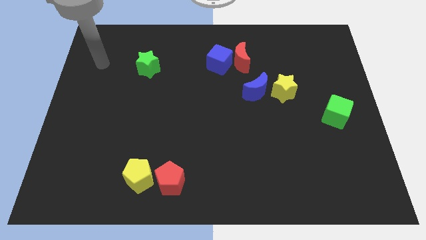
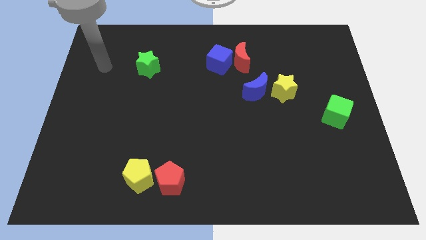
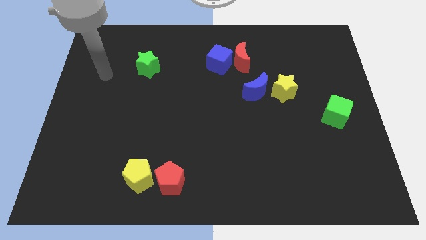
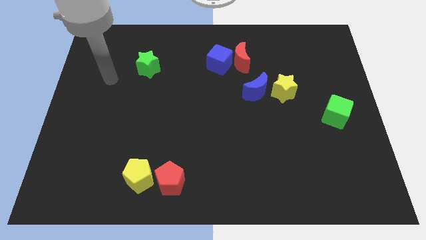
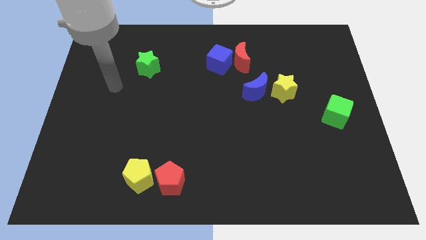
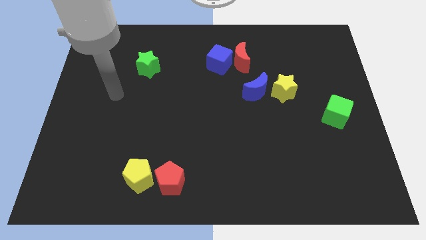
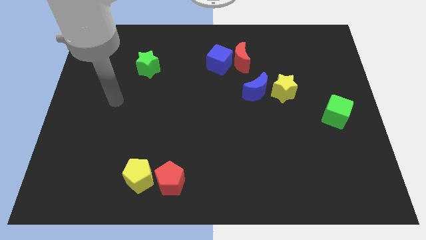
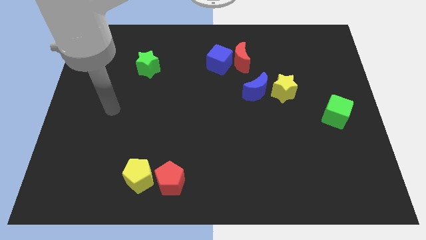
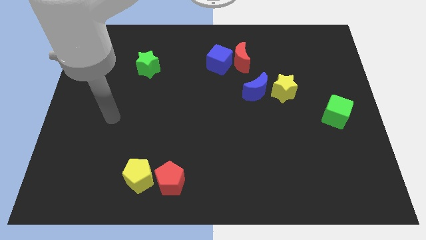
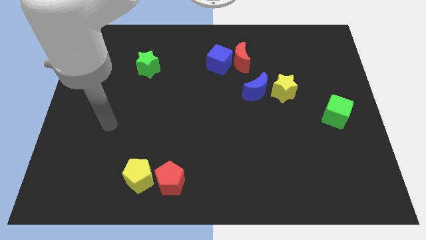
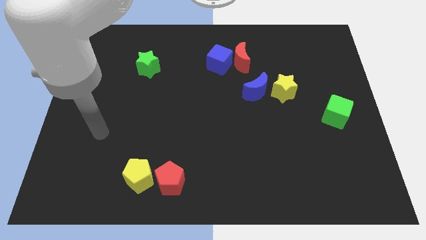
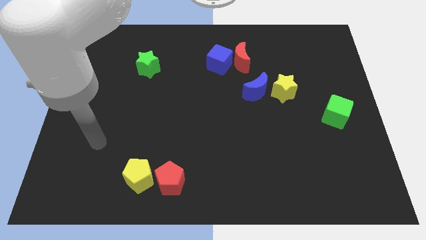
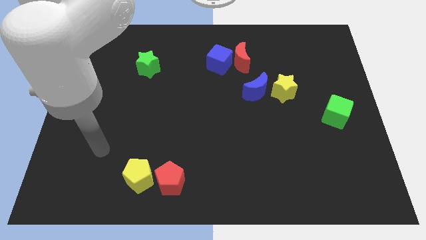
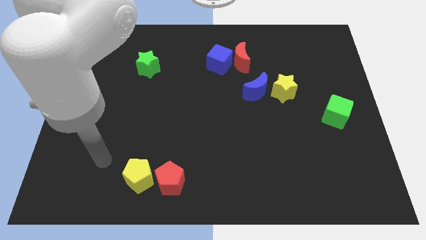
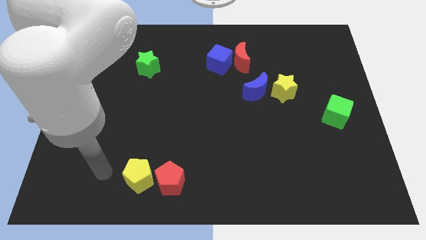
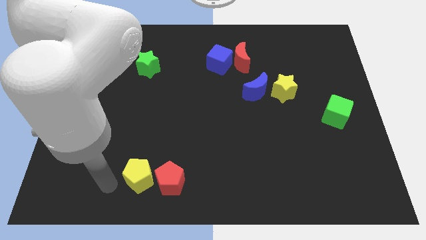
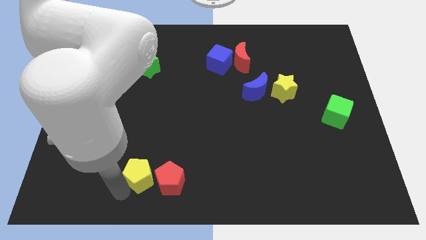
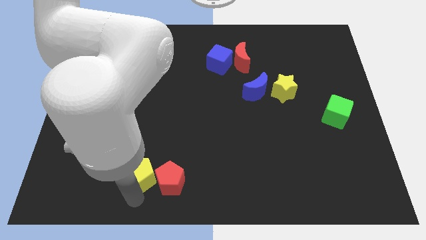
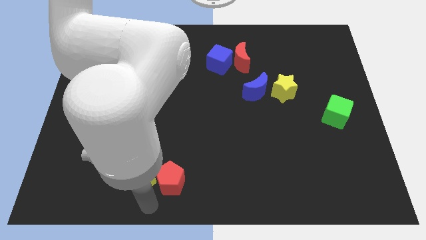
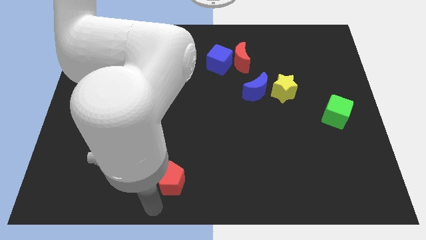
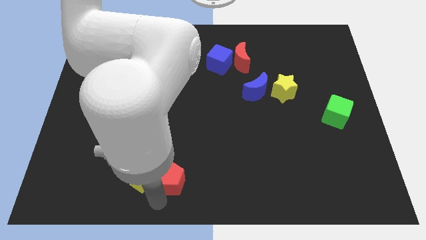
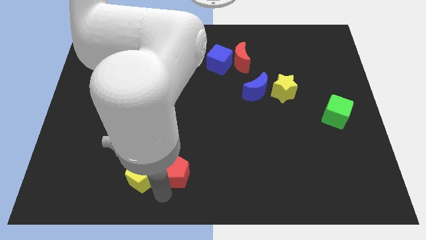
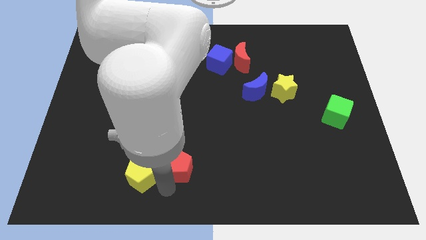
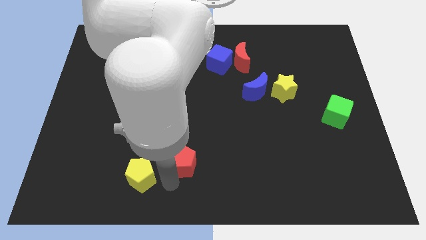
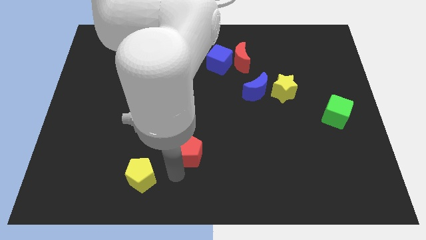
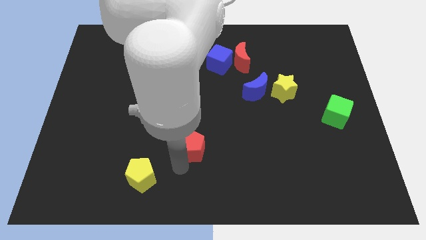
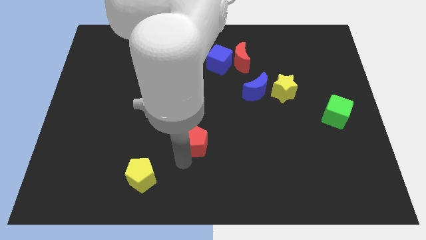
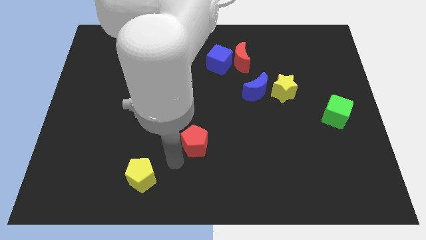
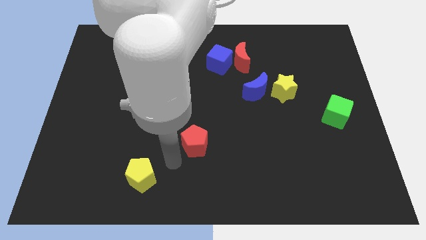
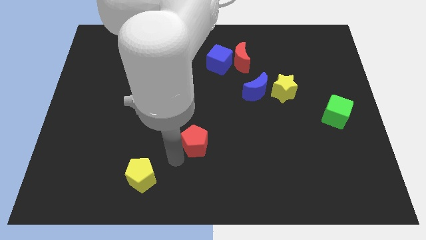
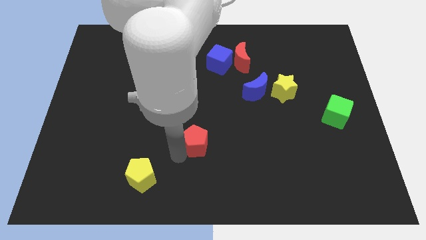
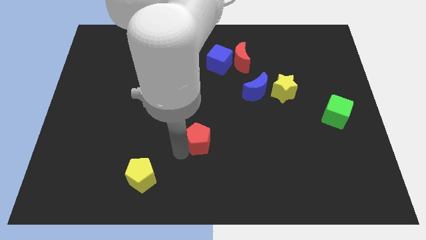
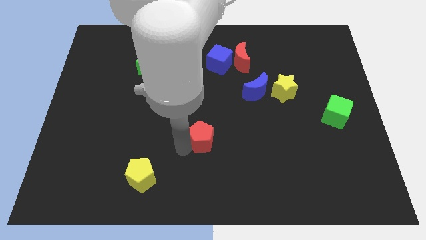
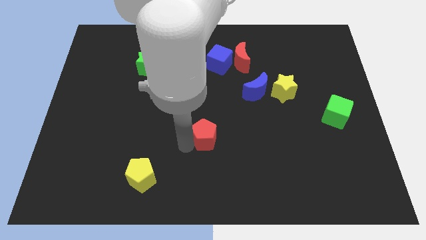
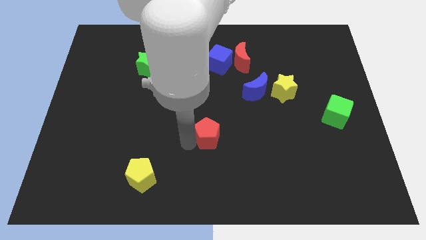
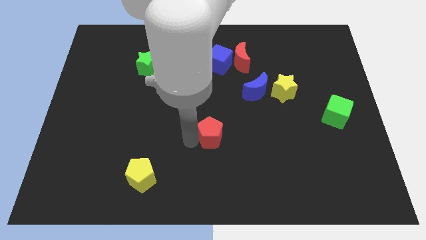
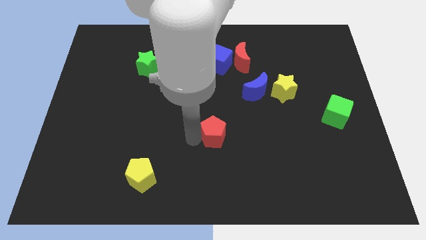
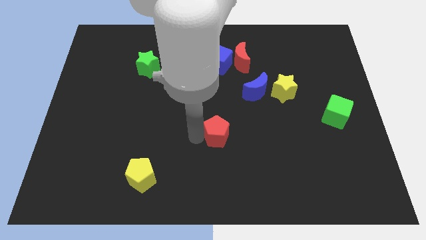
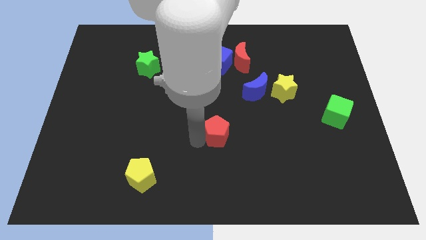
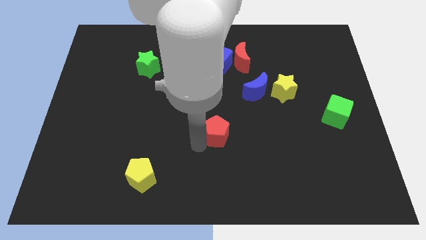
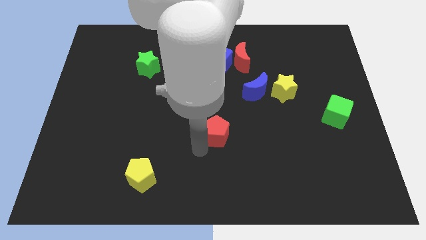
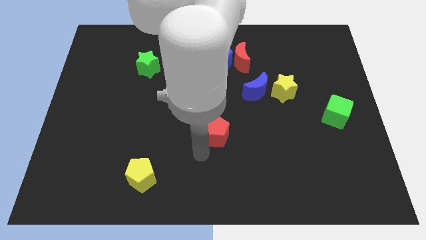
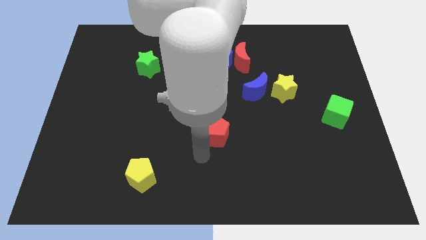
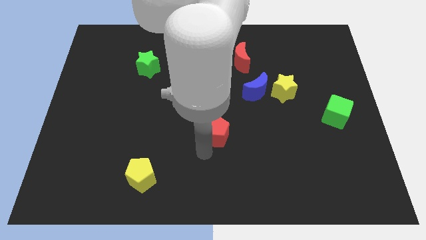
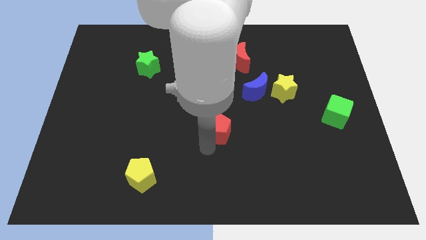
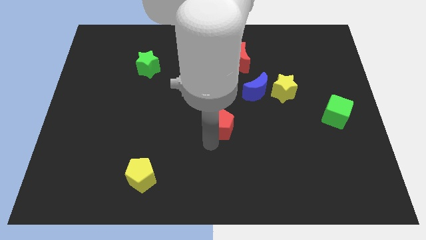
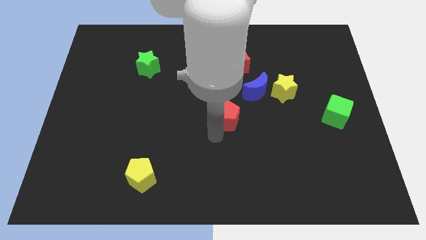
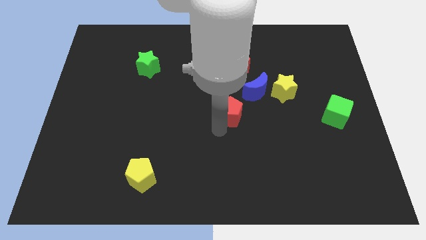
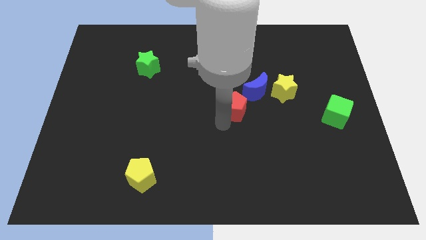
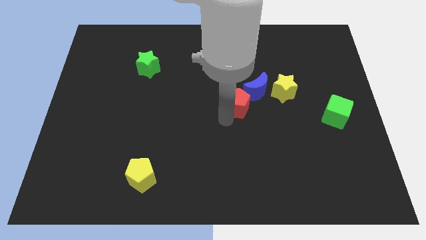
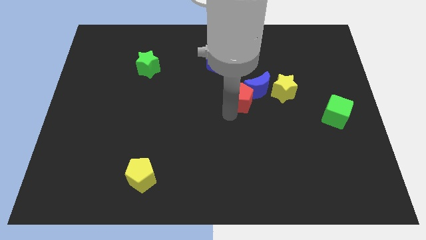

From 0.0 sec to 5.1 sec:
move the red pentagon to the blue moon

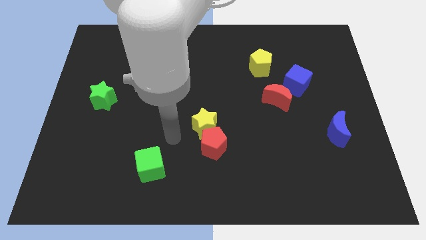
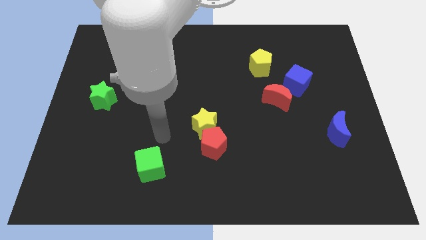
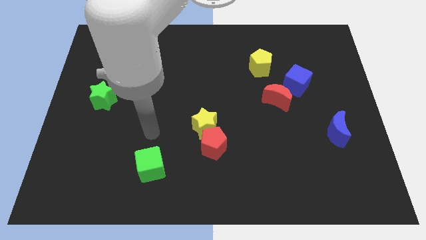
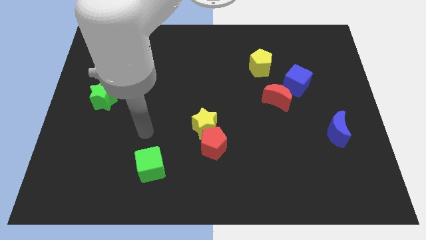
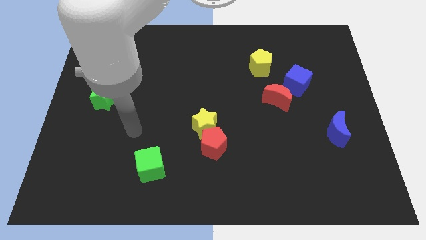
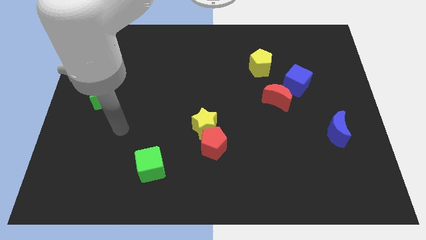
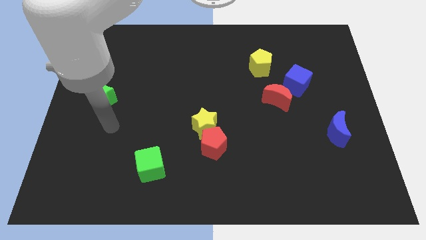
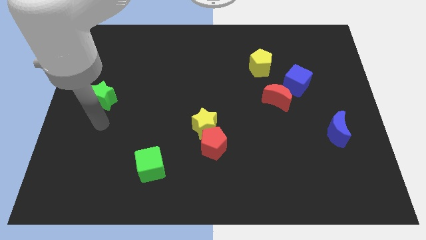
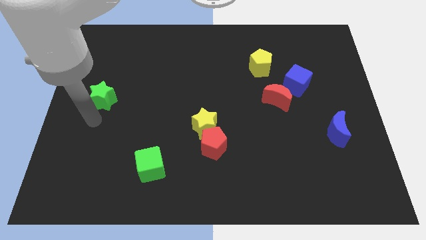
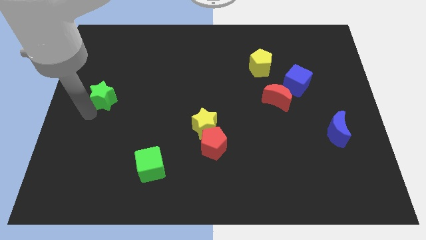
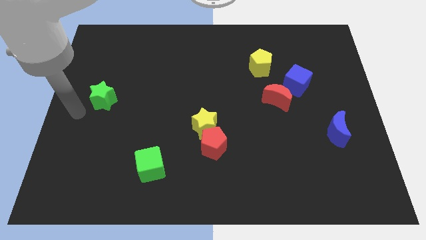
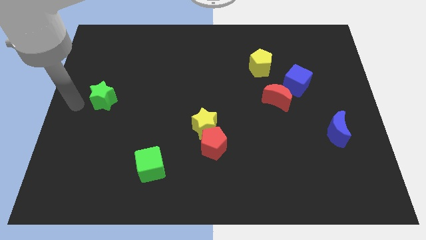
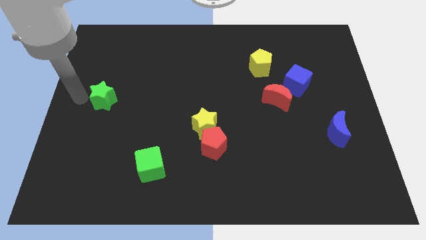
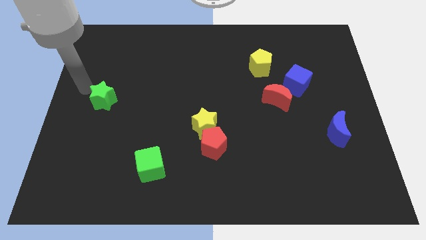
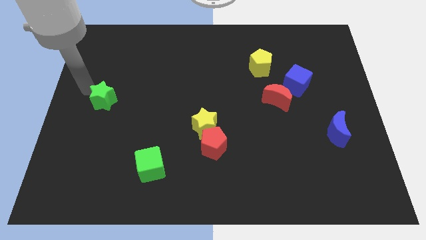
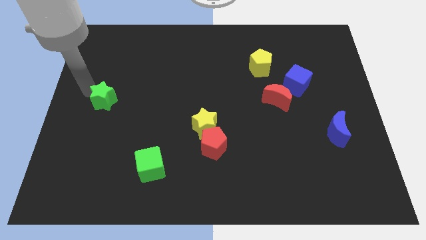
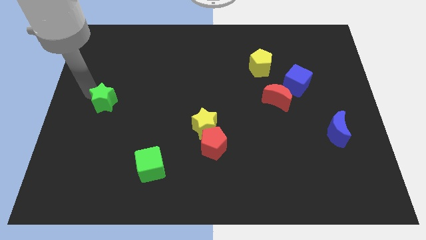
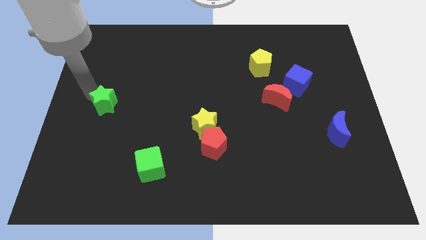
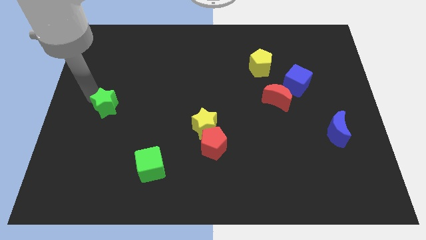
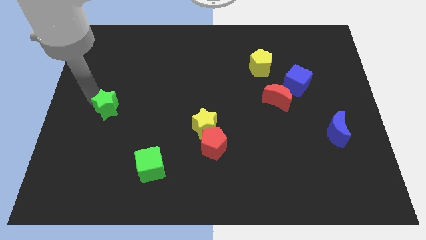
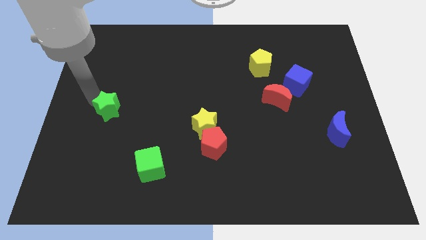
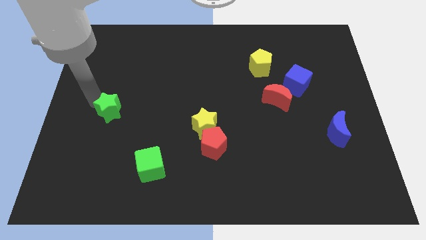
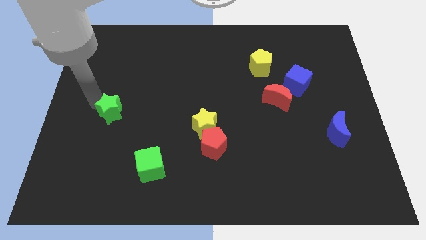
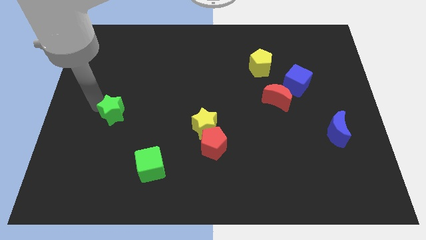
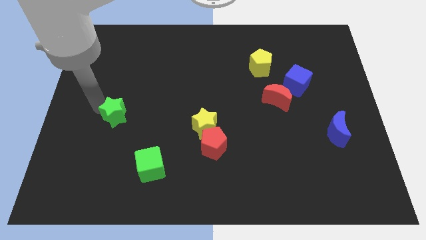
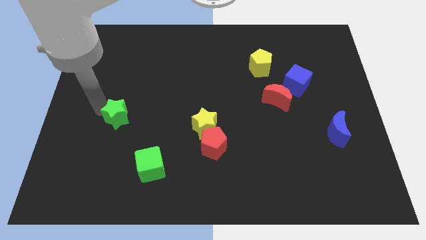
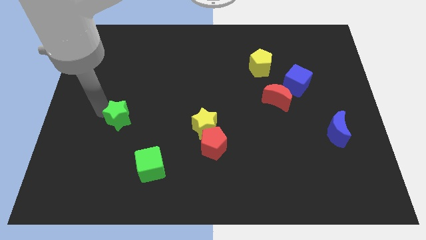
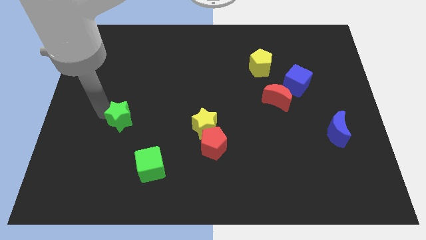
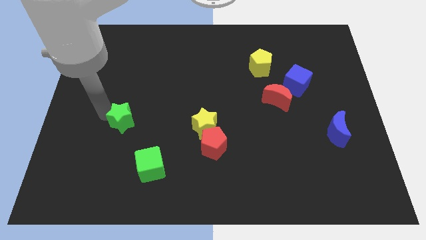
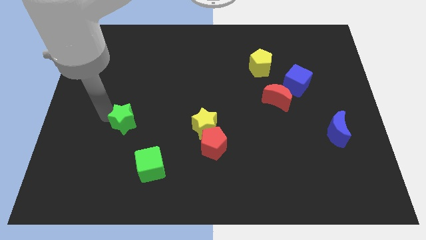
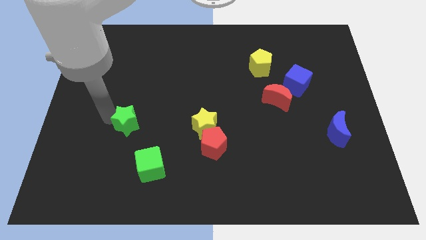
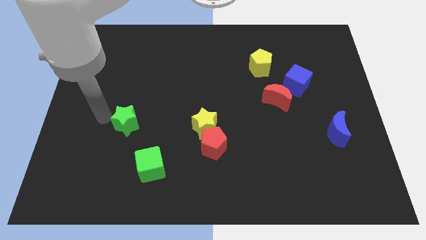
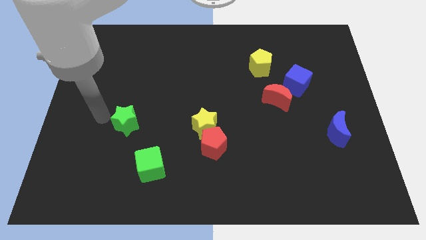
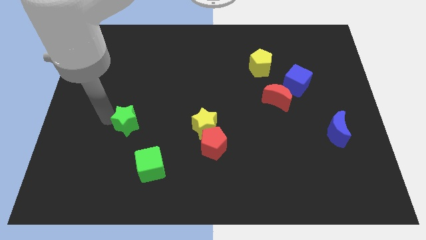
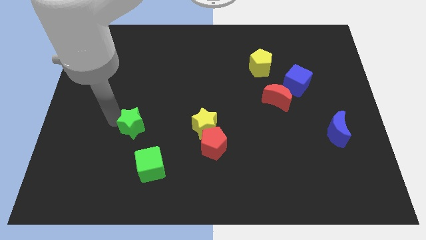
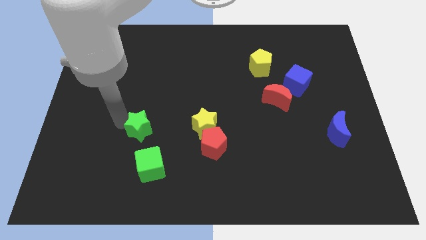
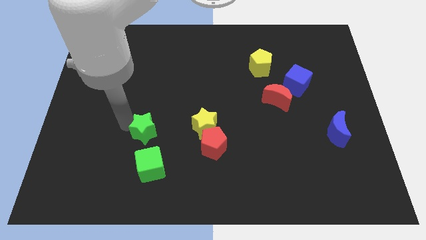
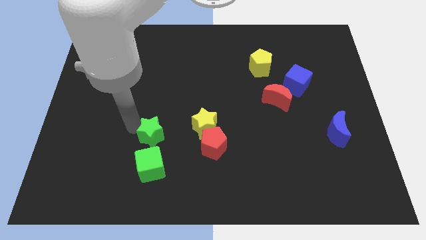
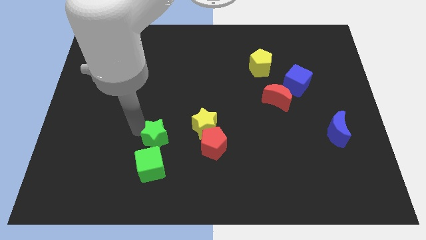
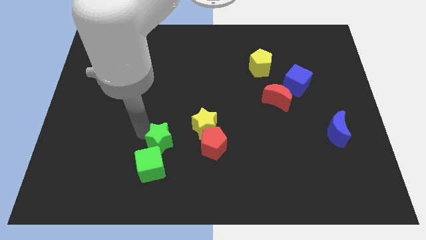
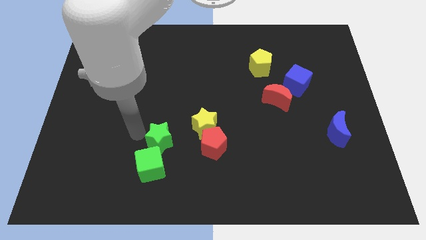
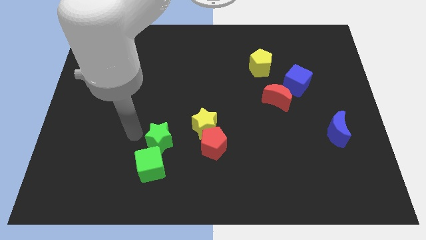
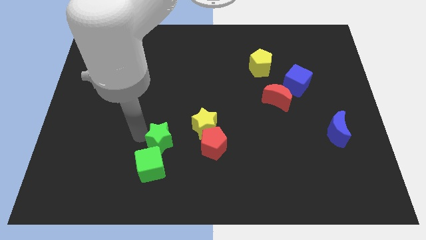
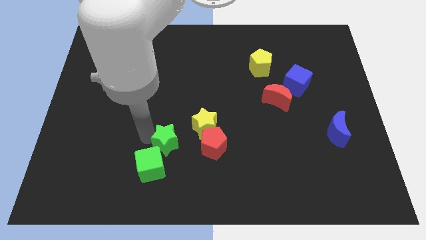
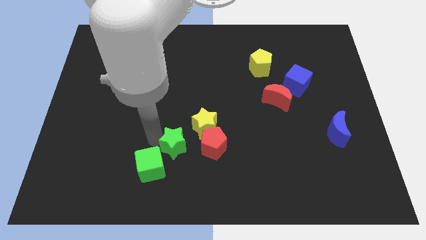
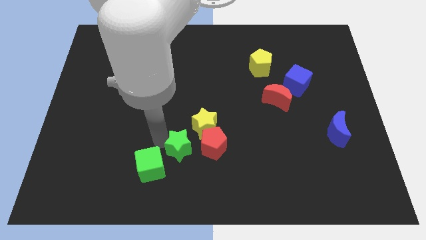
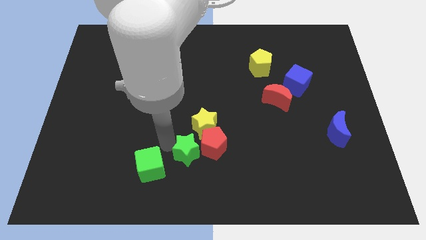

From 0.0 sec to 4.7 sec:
put the green star next to the red pentagon
